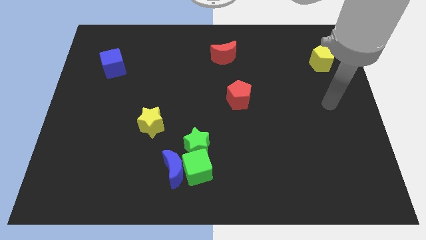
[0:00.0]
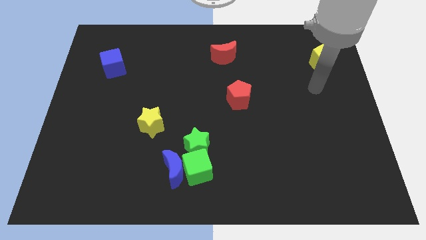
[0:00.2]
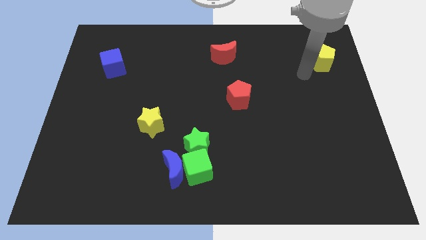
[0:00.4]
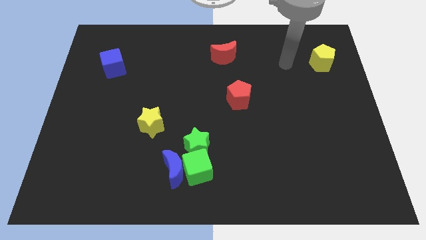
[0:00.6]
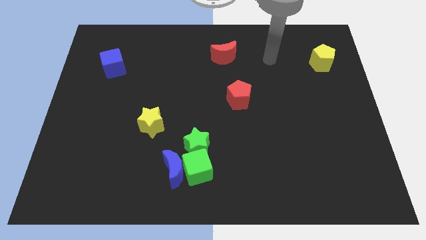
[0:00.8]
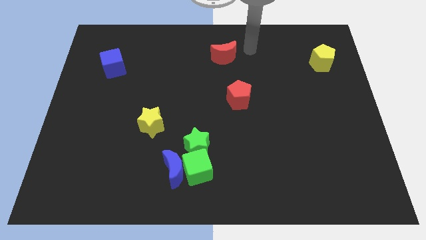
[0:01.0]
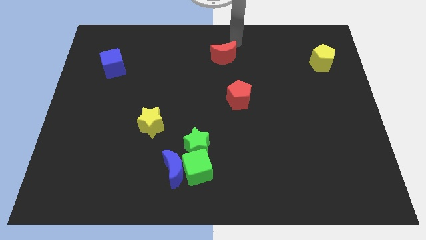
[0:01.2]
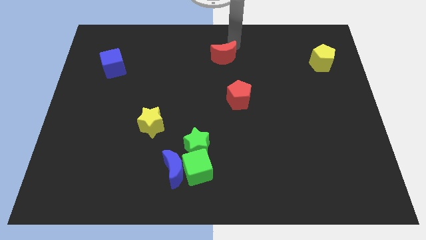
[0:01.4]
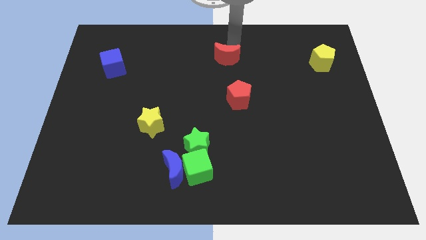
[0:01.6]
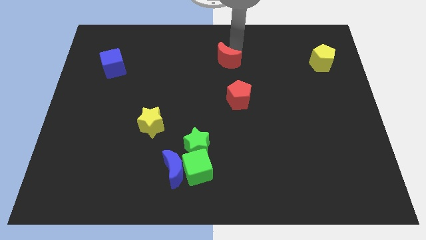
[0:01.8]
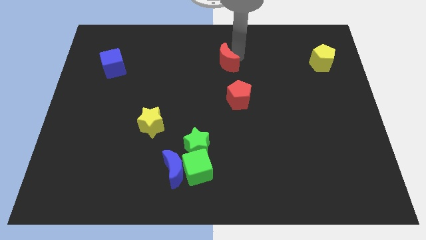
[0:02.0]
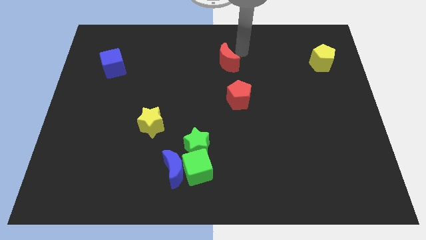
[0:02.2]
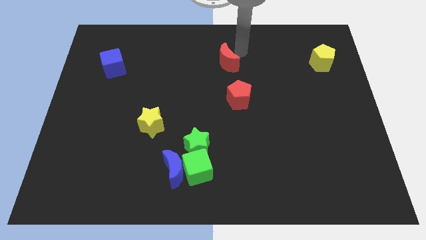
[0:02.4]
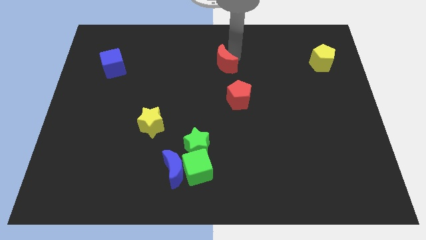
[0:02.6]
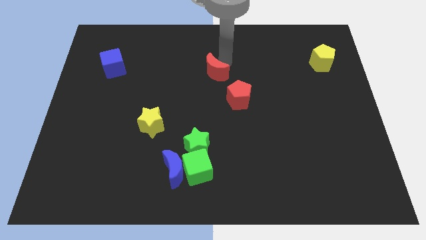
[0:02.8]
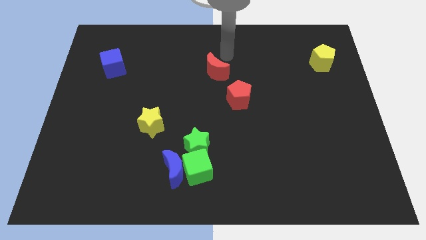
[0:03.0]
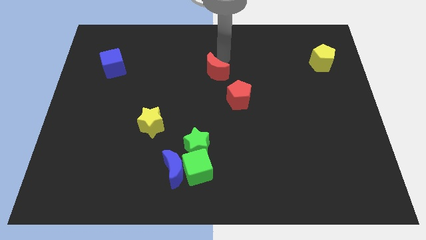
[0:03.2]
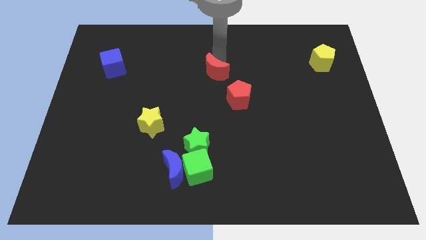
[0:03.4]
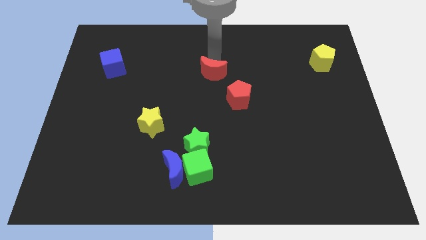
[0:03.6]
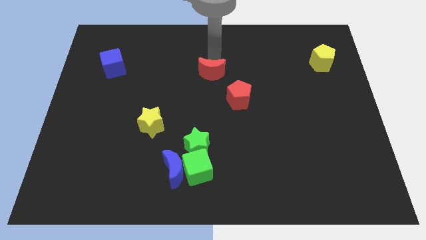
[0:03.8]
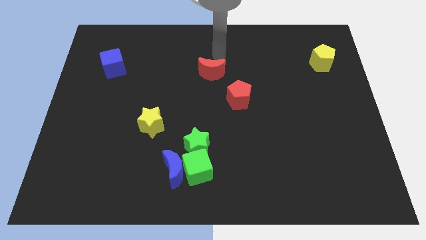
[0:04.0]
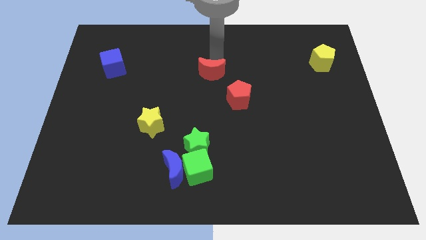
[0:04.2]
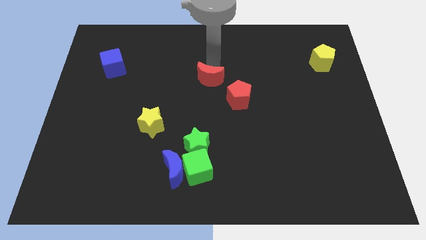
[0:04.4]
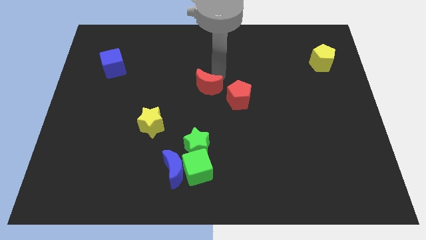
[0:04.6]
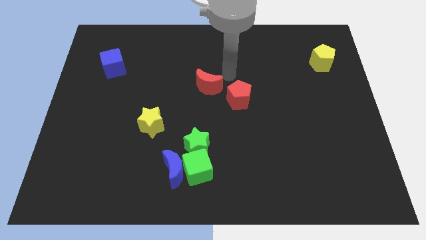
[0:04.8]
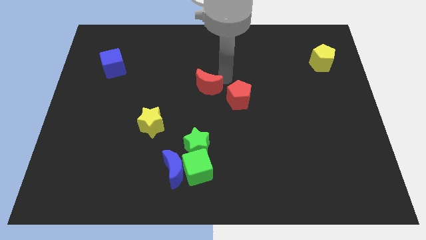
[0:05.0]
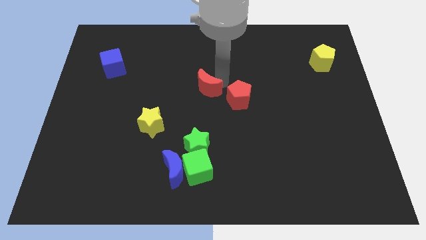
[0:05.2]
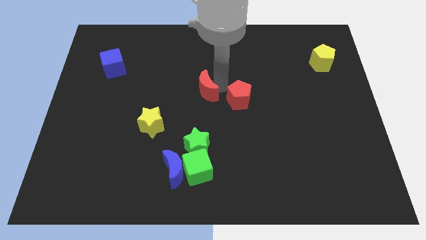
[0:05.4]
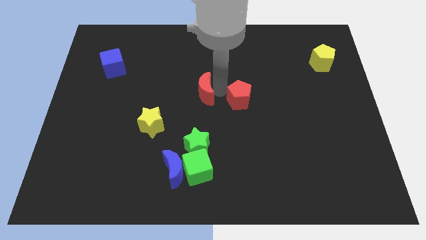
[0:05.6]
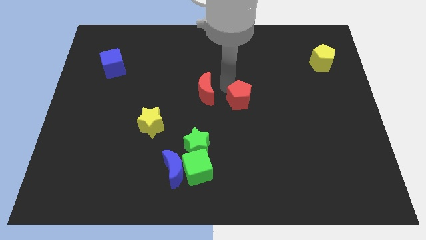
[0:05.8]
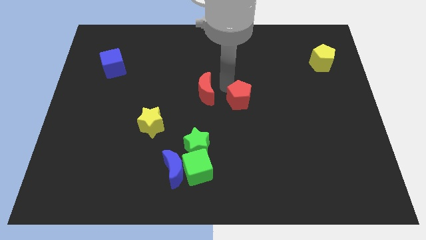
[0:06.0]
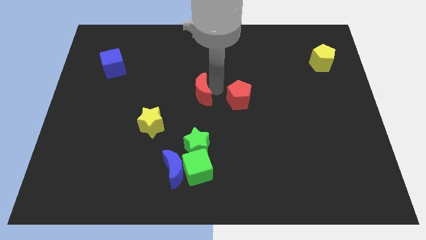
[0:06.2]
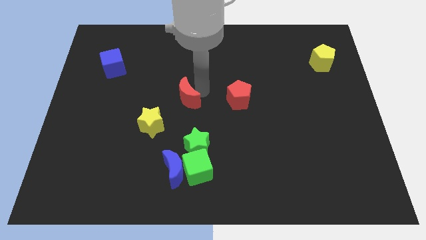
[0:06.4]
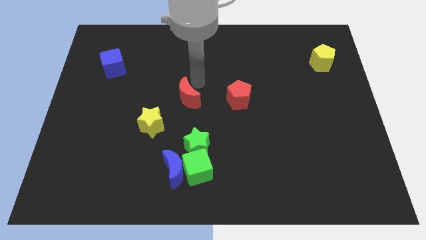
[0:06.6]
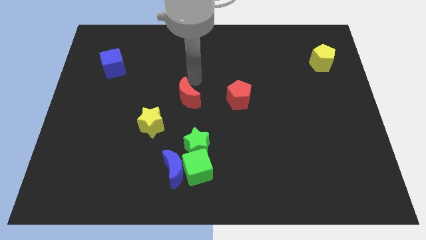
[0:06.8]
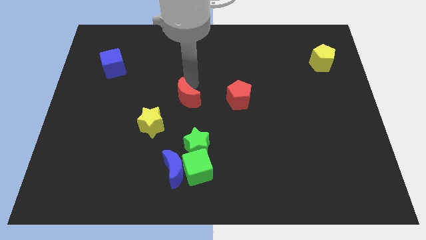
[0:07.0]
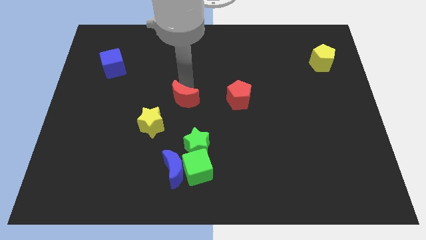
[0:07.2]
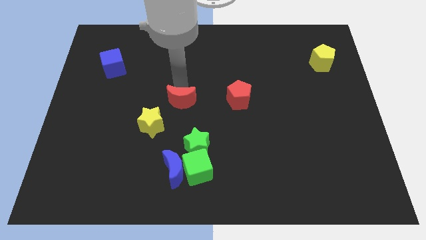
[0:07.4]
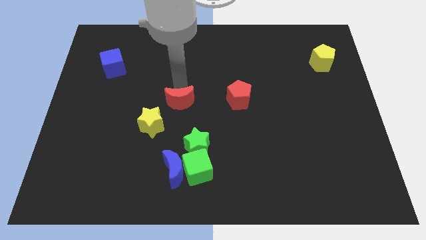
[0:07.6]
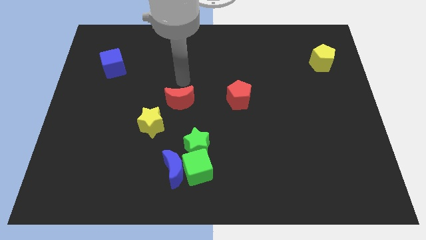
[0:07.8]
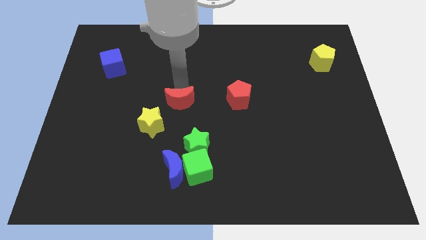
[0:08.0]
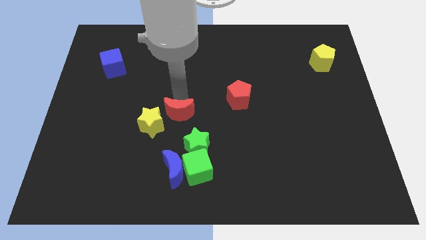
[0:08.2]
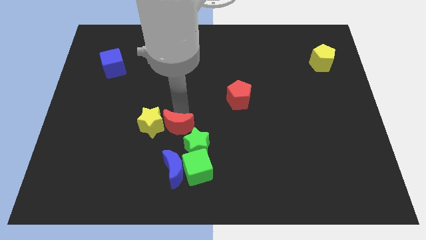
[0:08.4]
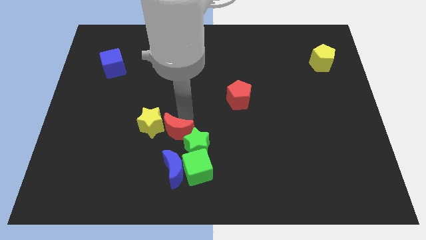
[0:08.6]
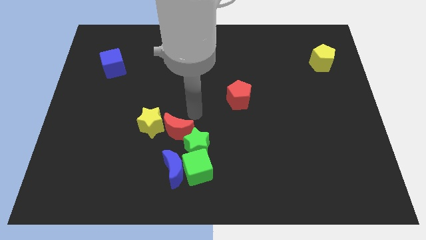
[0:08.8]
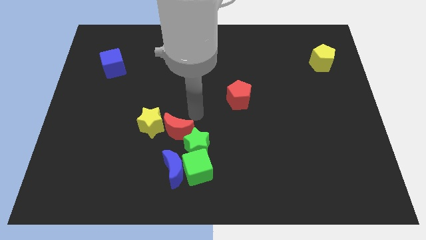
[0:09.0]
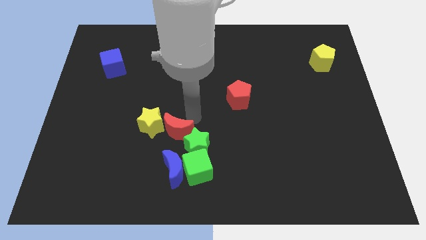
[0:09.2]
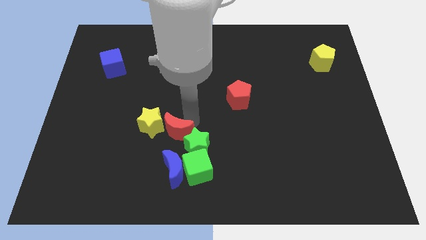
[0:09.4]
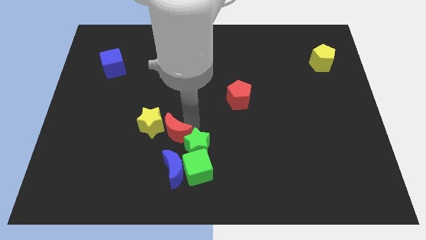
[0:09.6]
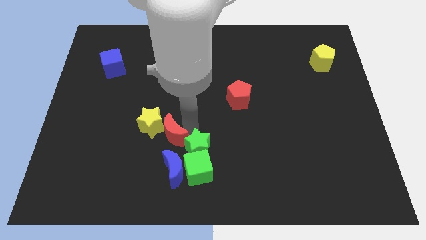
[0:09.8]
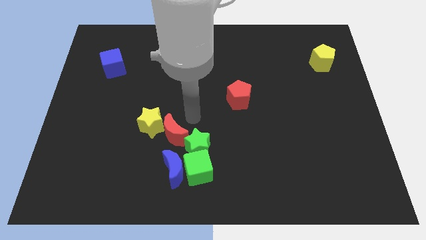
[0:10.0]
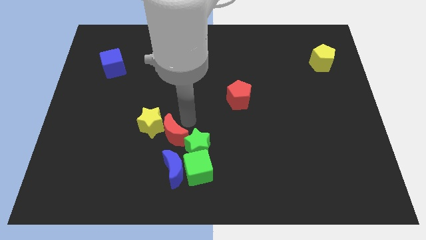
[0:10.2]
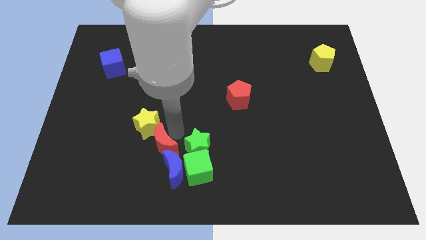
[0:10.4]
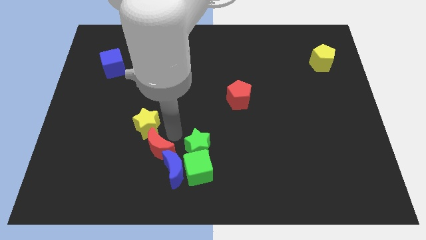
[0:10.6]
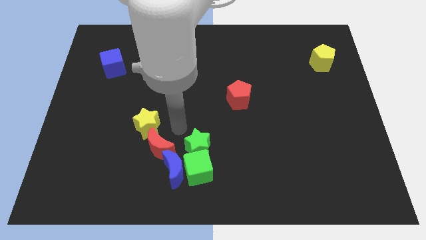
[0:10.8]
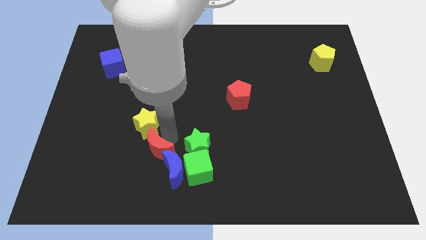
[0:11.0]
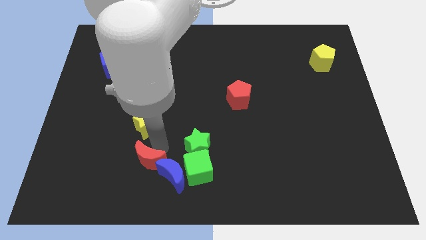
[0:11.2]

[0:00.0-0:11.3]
push the red moon diagonally down and to the left of the green star
